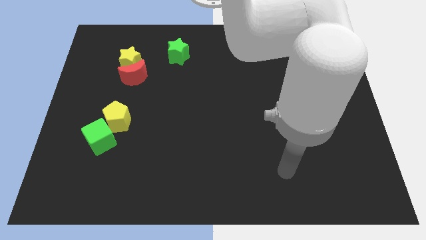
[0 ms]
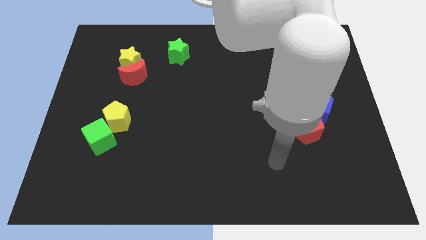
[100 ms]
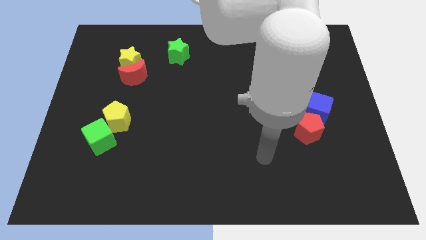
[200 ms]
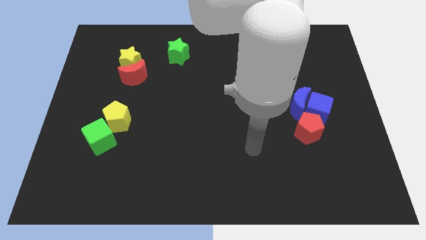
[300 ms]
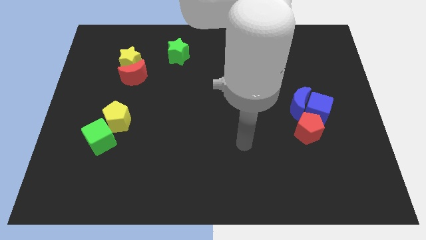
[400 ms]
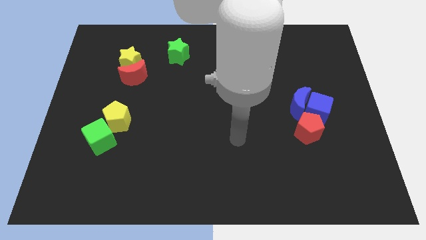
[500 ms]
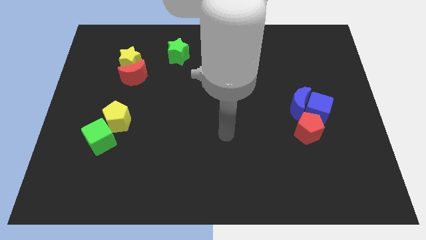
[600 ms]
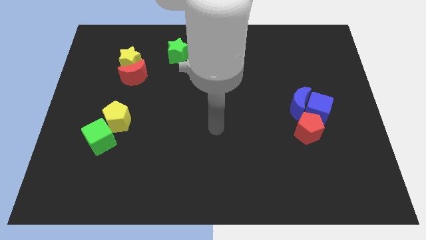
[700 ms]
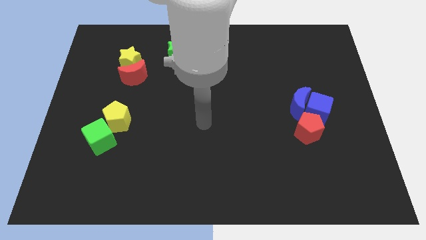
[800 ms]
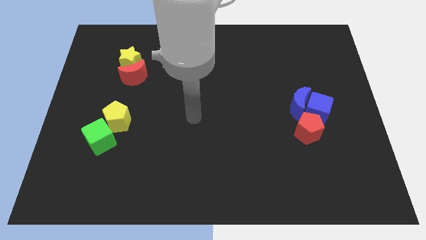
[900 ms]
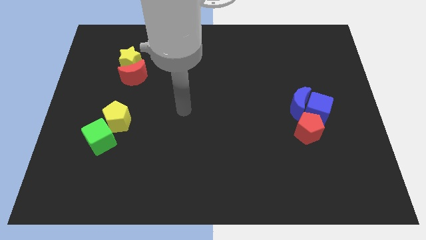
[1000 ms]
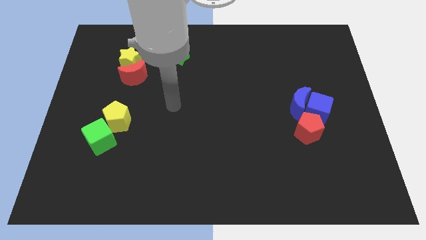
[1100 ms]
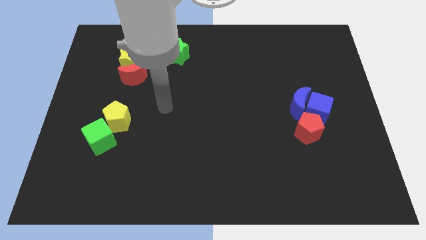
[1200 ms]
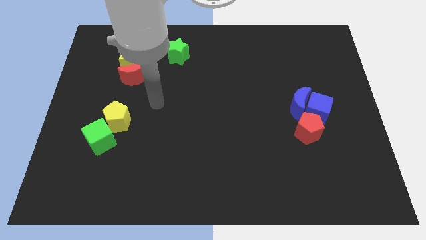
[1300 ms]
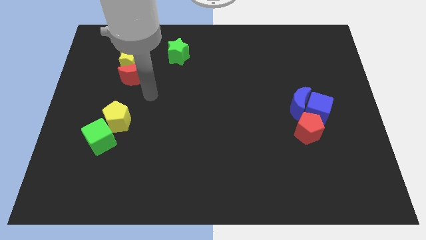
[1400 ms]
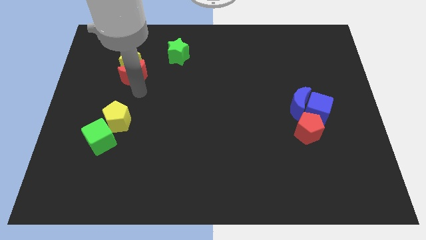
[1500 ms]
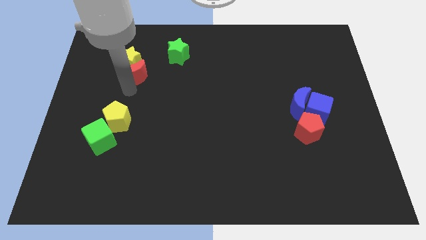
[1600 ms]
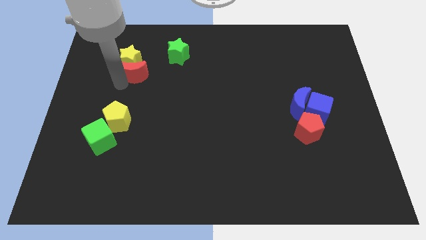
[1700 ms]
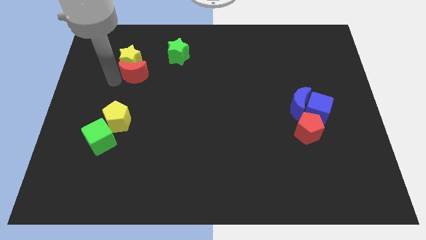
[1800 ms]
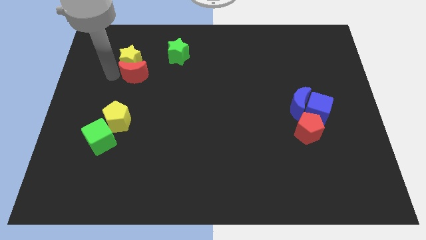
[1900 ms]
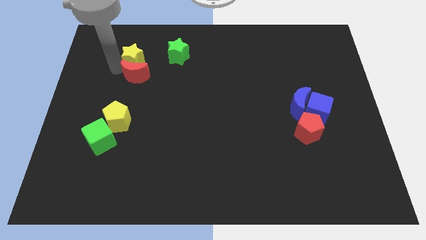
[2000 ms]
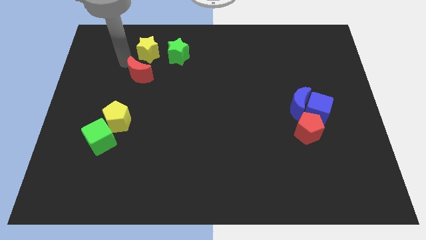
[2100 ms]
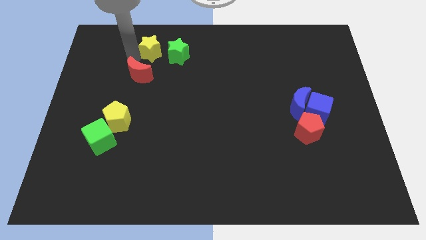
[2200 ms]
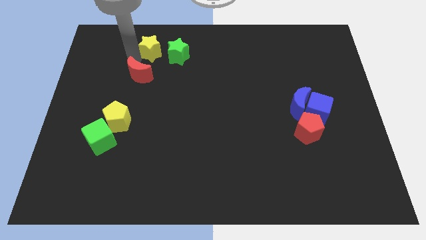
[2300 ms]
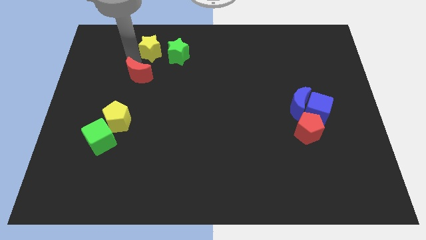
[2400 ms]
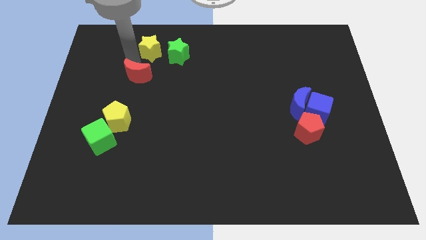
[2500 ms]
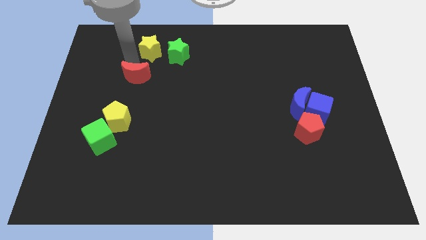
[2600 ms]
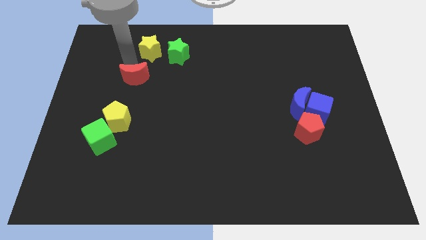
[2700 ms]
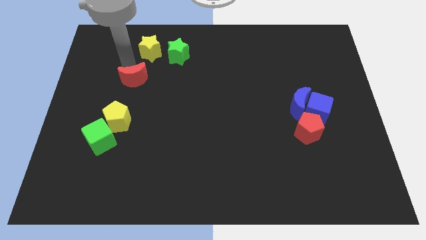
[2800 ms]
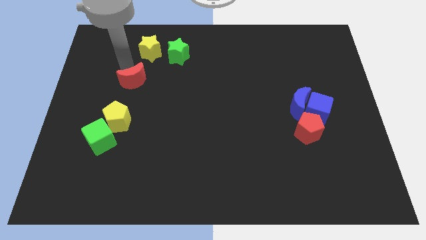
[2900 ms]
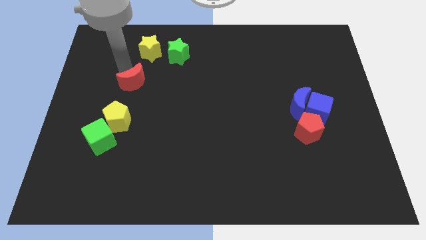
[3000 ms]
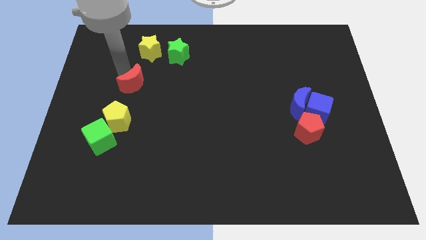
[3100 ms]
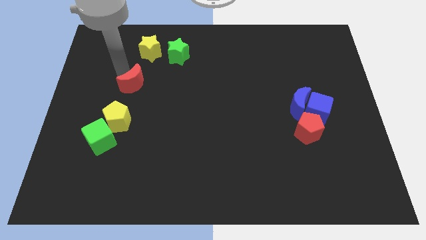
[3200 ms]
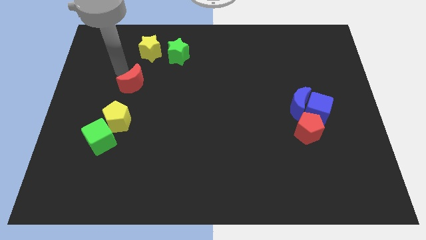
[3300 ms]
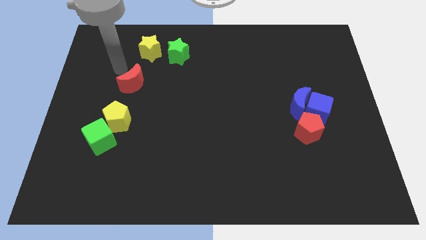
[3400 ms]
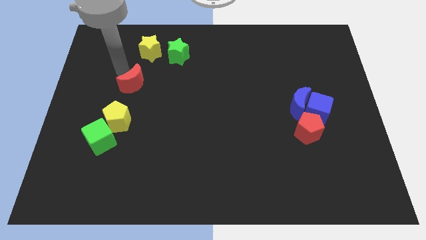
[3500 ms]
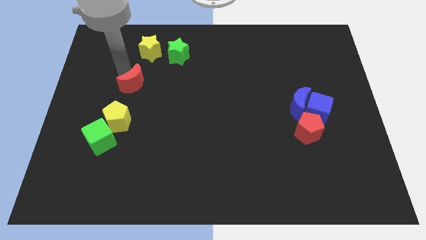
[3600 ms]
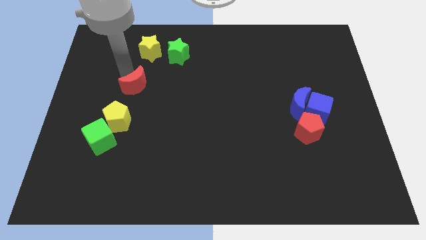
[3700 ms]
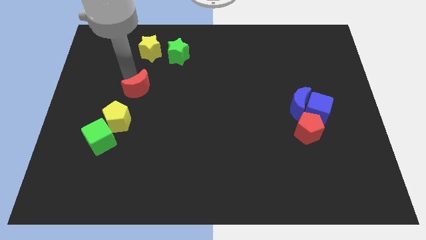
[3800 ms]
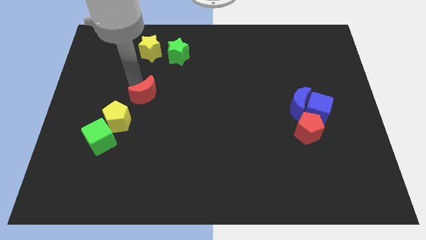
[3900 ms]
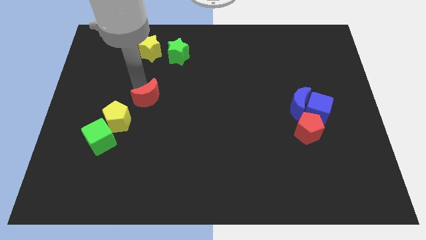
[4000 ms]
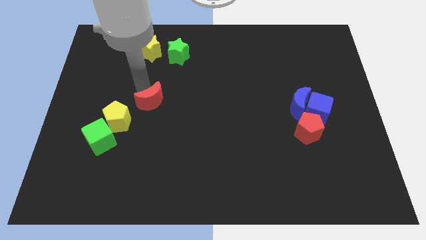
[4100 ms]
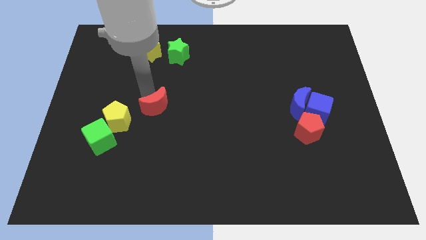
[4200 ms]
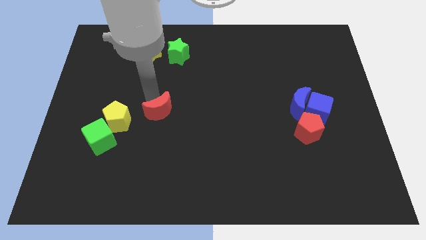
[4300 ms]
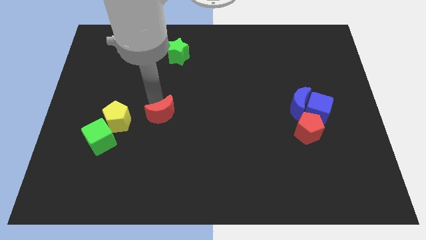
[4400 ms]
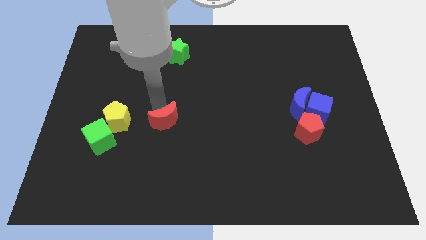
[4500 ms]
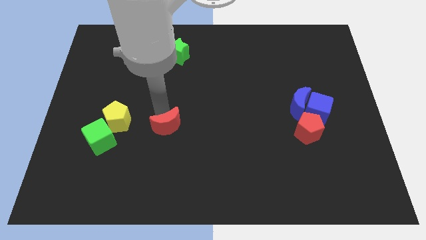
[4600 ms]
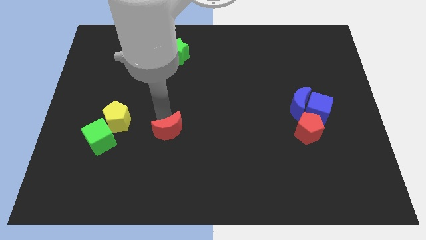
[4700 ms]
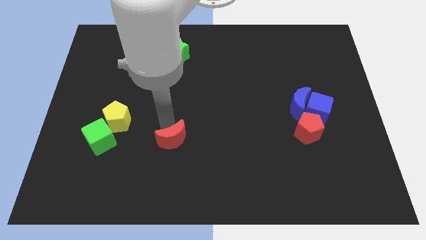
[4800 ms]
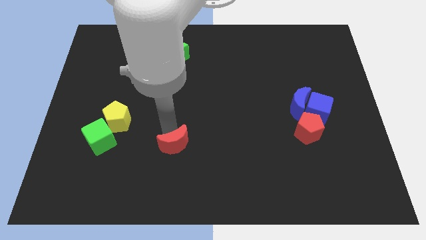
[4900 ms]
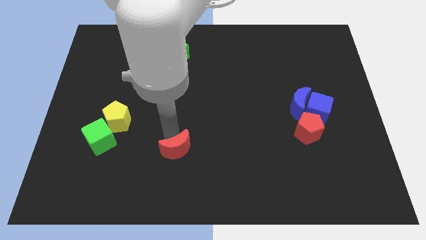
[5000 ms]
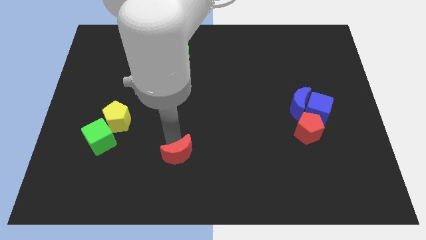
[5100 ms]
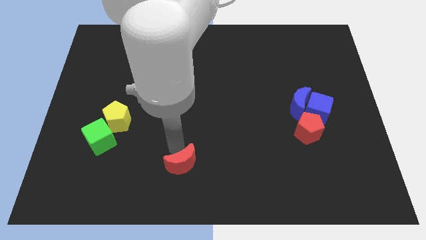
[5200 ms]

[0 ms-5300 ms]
push the red moon to the bottom side
